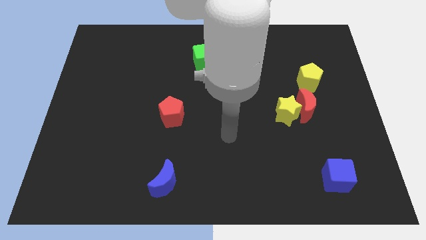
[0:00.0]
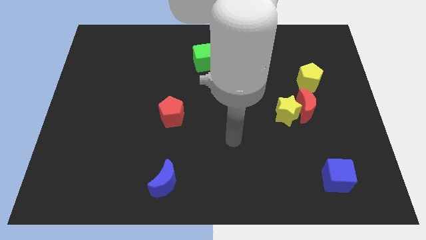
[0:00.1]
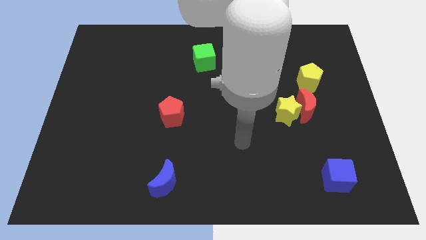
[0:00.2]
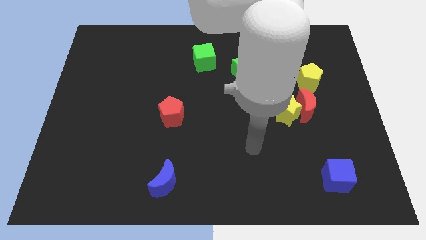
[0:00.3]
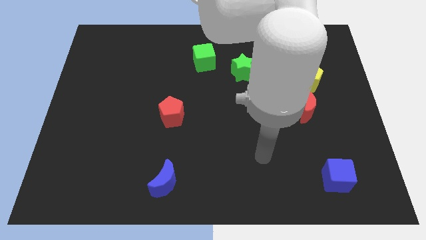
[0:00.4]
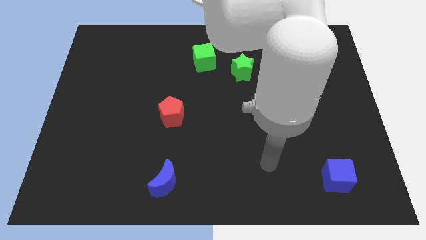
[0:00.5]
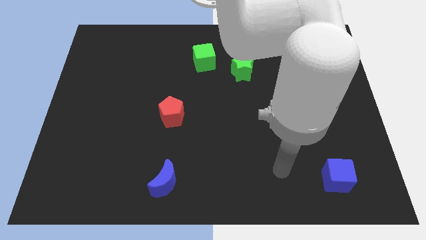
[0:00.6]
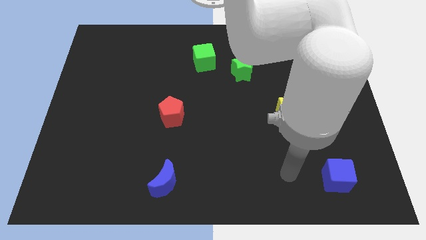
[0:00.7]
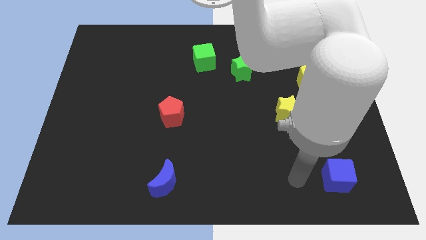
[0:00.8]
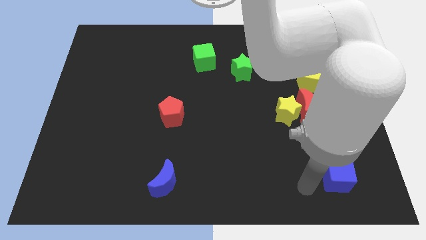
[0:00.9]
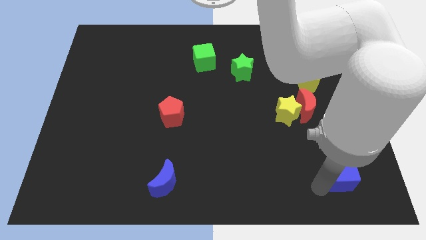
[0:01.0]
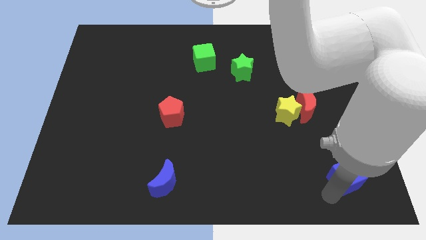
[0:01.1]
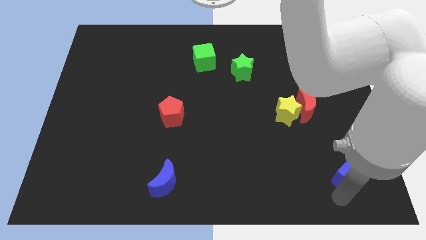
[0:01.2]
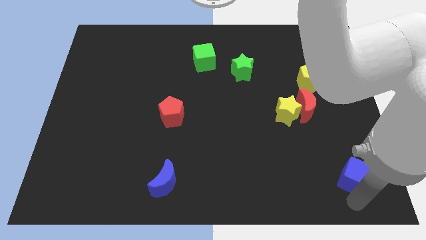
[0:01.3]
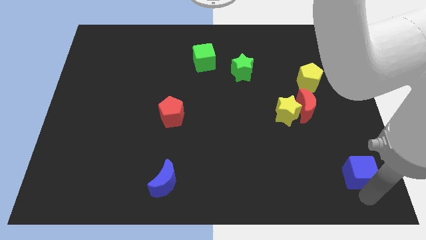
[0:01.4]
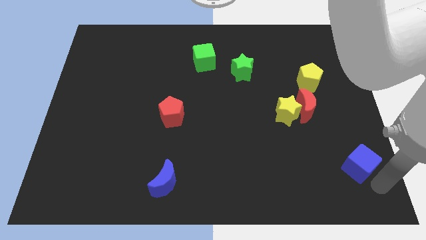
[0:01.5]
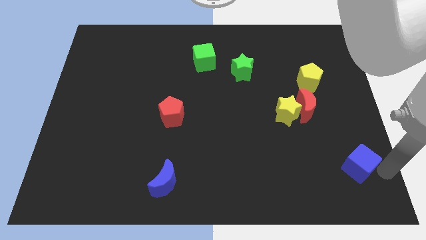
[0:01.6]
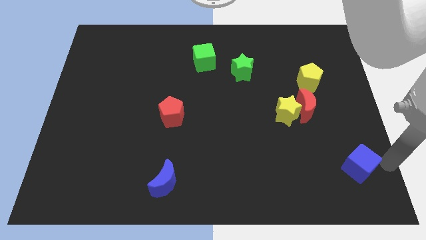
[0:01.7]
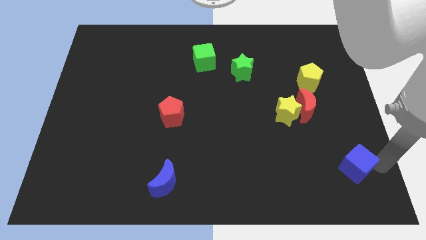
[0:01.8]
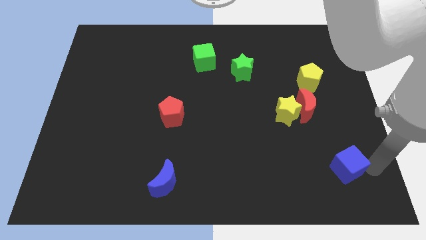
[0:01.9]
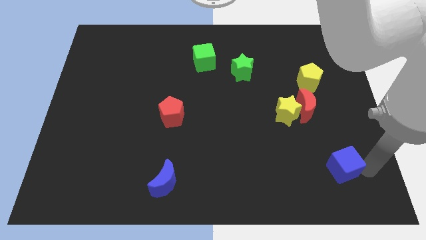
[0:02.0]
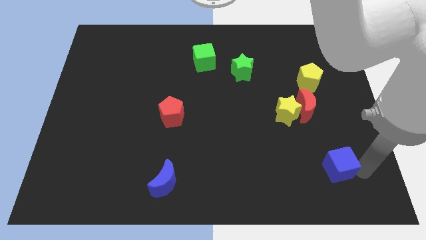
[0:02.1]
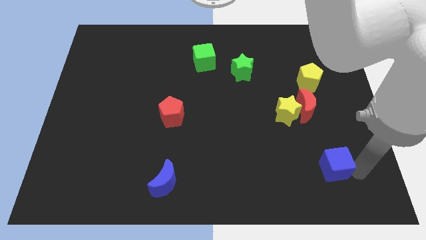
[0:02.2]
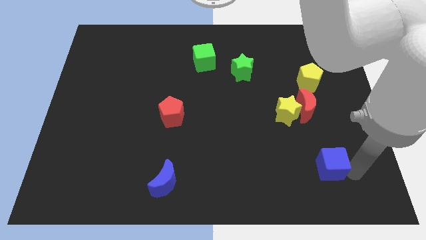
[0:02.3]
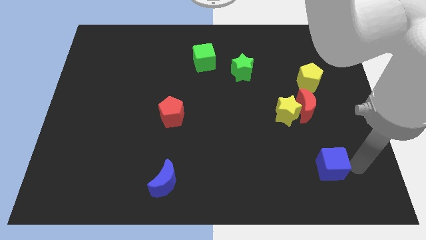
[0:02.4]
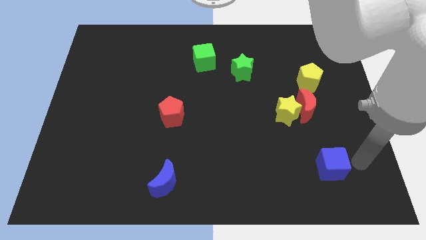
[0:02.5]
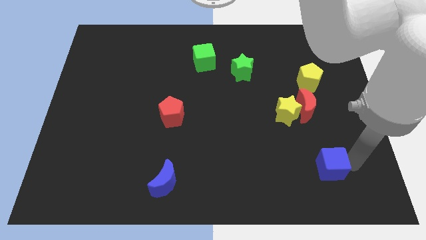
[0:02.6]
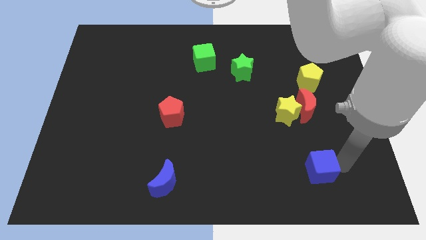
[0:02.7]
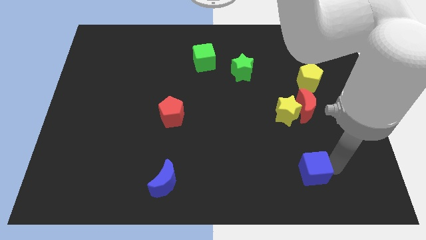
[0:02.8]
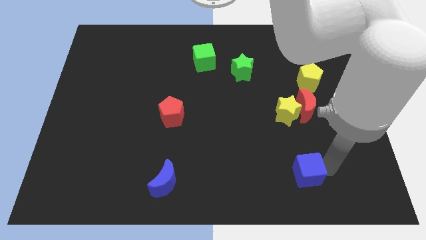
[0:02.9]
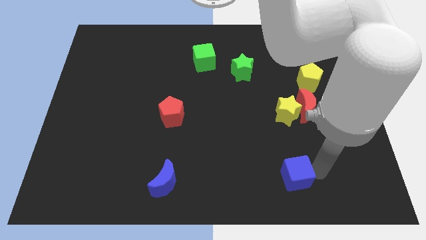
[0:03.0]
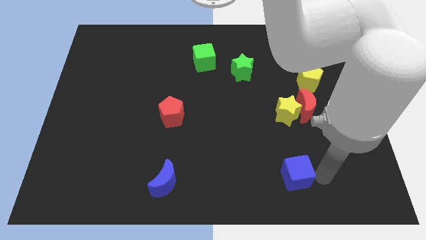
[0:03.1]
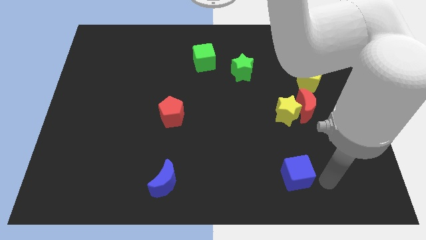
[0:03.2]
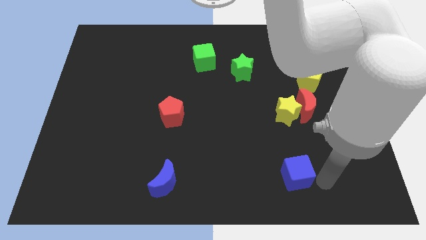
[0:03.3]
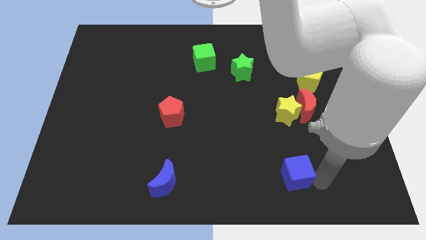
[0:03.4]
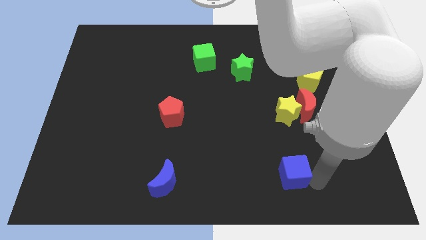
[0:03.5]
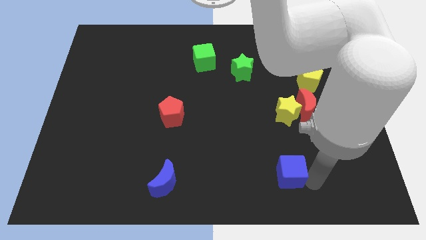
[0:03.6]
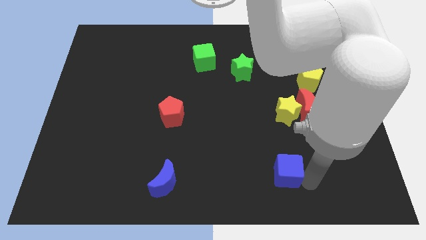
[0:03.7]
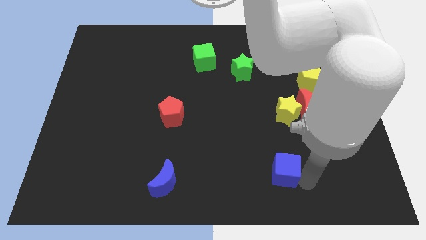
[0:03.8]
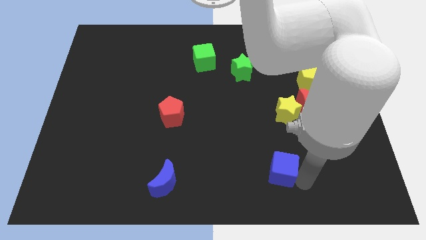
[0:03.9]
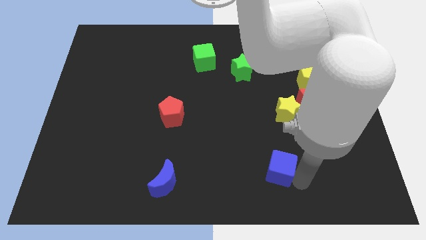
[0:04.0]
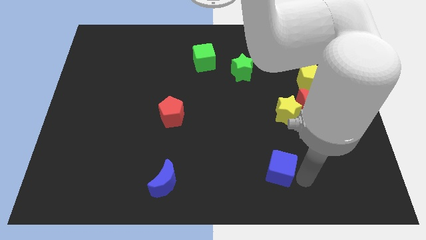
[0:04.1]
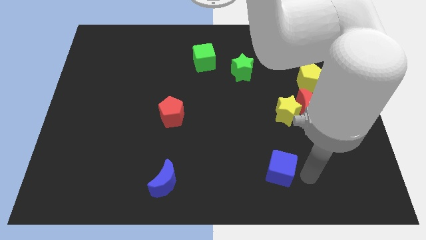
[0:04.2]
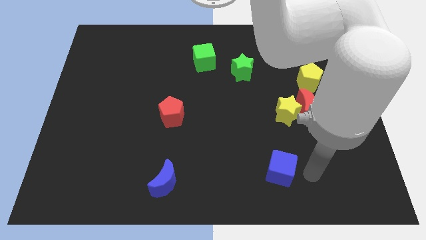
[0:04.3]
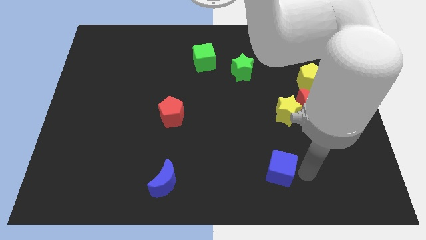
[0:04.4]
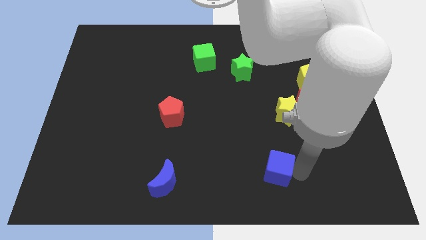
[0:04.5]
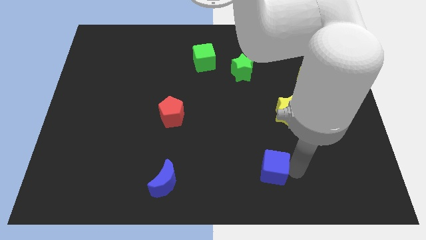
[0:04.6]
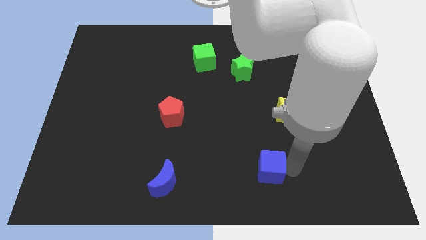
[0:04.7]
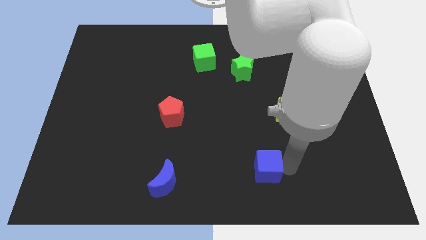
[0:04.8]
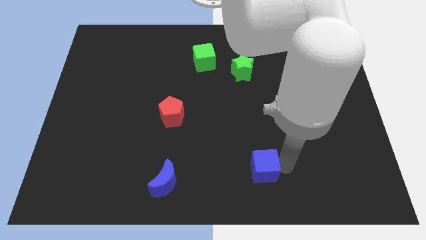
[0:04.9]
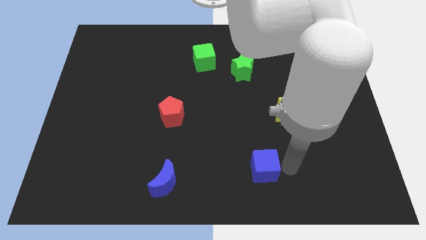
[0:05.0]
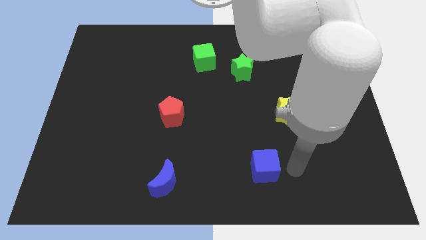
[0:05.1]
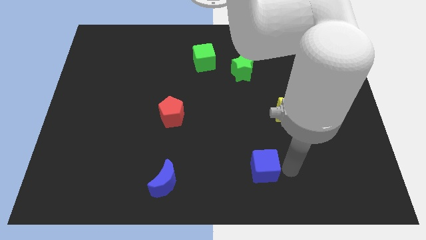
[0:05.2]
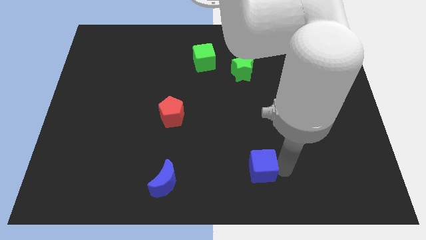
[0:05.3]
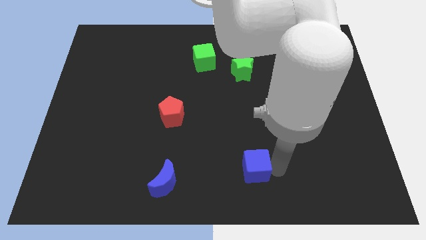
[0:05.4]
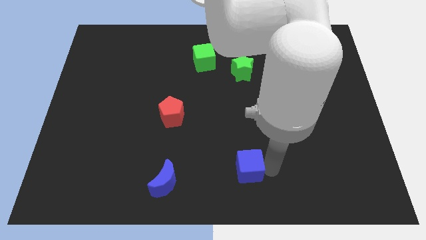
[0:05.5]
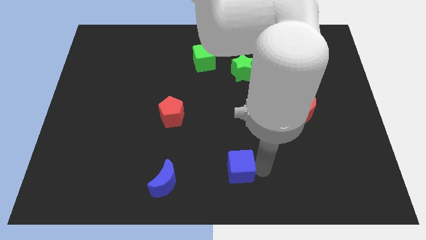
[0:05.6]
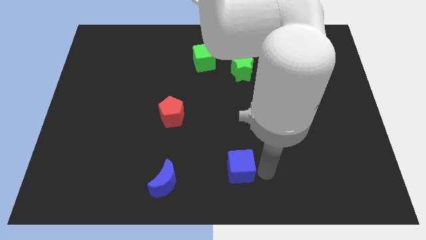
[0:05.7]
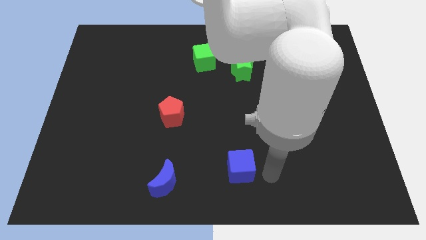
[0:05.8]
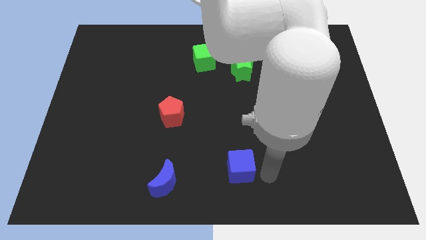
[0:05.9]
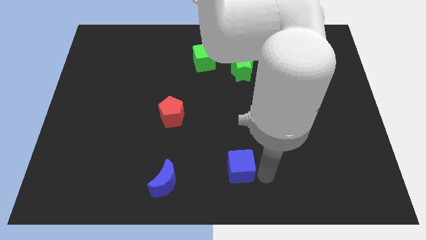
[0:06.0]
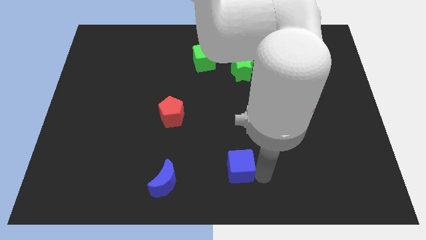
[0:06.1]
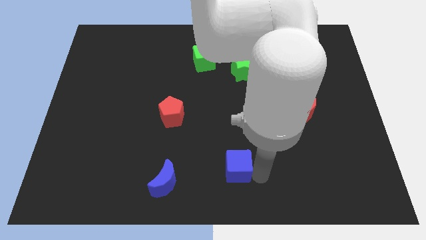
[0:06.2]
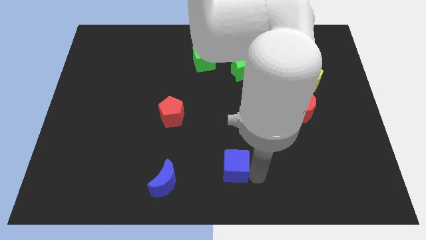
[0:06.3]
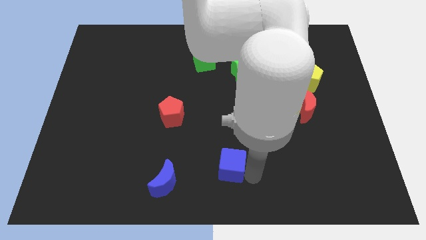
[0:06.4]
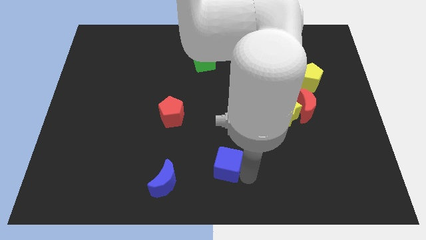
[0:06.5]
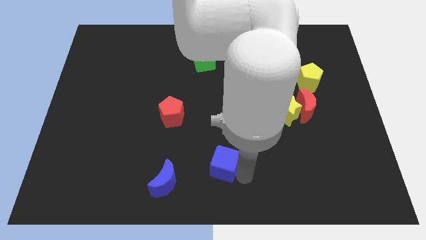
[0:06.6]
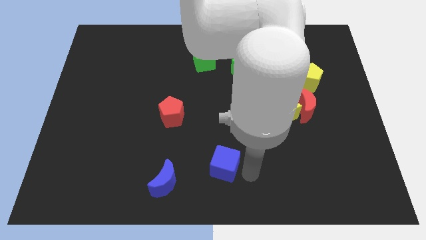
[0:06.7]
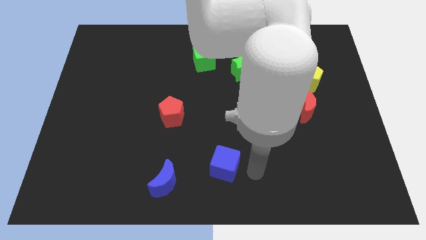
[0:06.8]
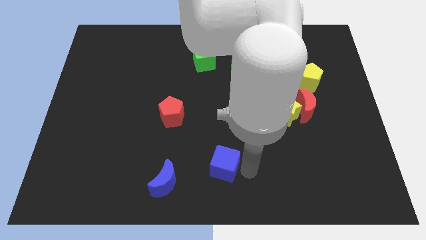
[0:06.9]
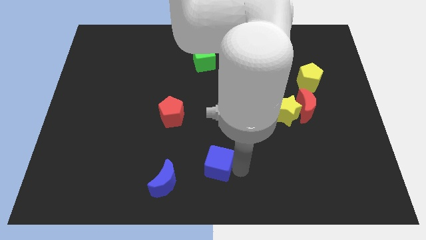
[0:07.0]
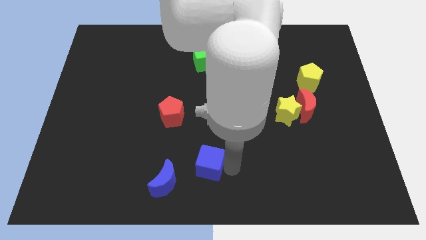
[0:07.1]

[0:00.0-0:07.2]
slide the blue cube to the top right side of the blue moon

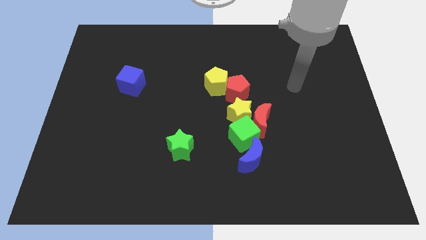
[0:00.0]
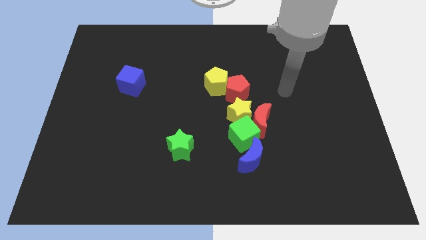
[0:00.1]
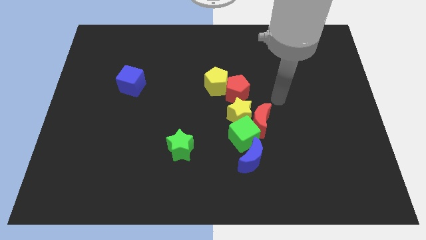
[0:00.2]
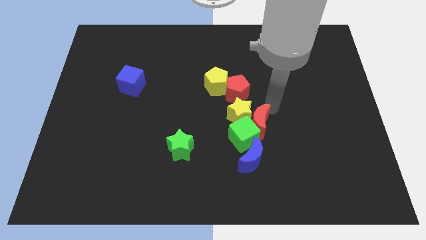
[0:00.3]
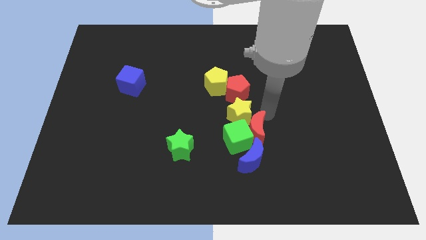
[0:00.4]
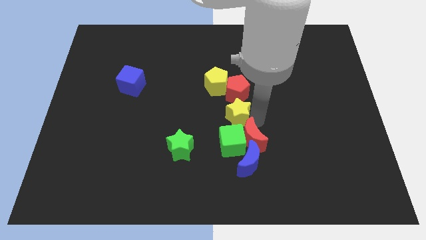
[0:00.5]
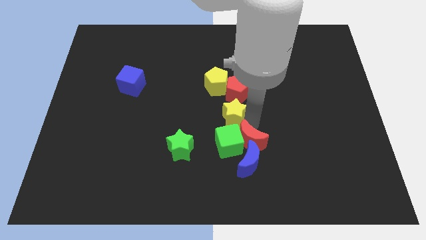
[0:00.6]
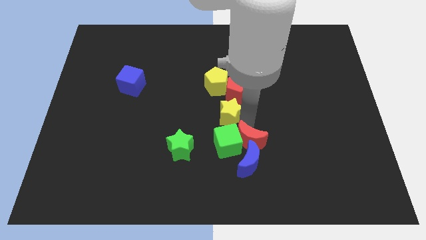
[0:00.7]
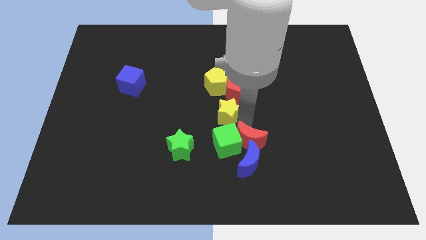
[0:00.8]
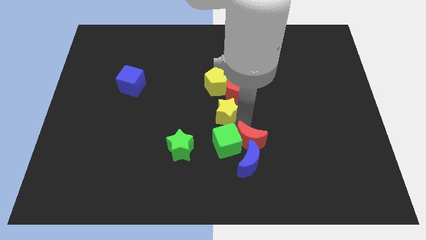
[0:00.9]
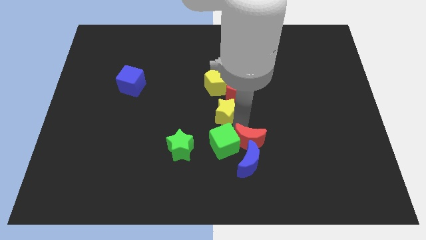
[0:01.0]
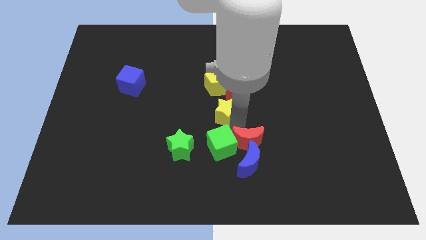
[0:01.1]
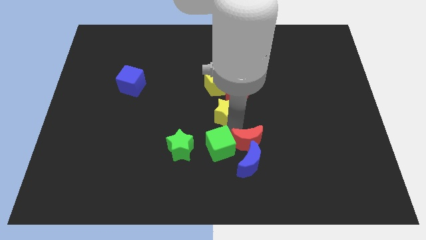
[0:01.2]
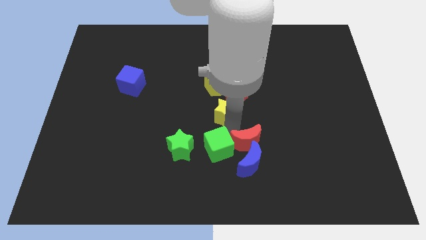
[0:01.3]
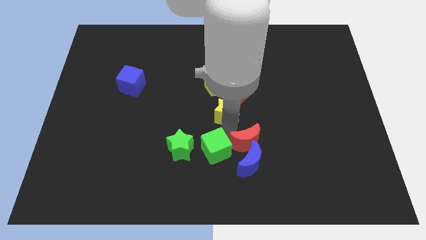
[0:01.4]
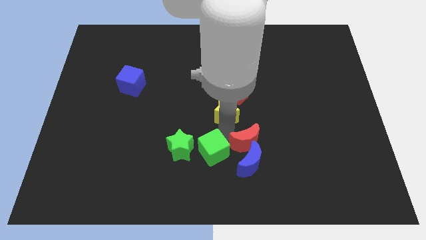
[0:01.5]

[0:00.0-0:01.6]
slide the green cube to the bottom right side of the green star
